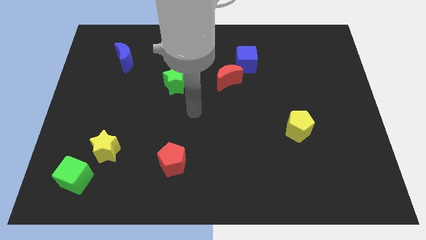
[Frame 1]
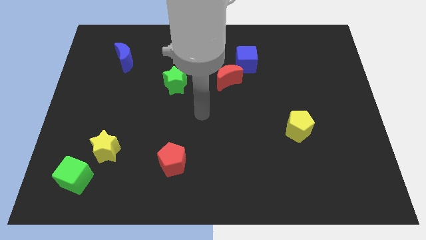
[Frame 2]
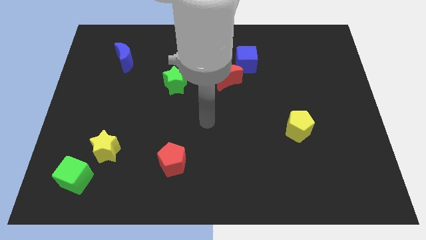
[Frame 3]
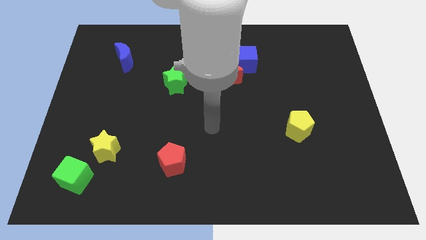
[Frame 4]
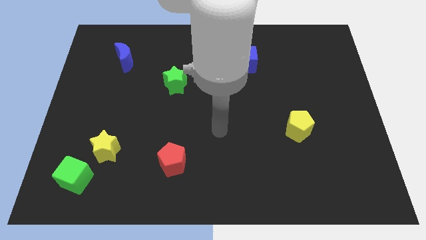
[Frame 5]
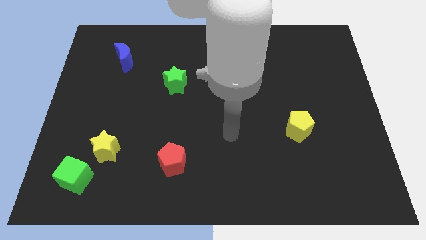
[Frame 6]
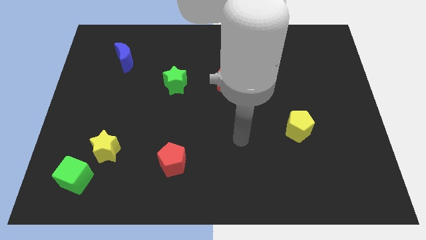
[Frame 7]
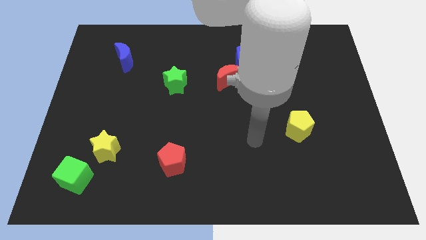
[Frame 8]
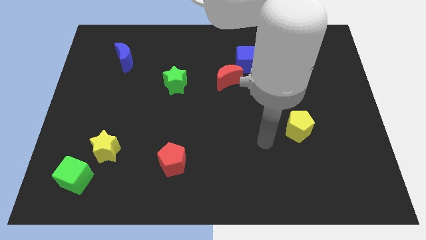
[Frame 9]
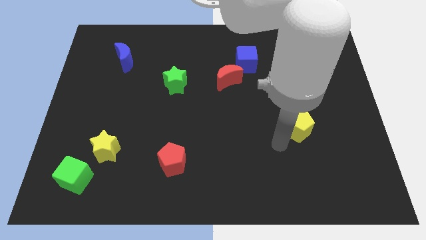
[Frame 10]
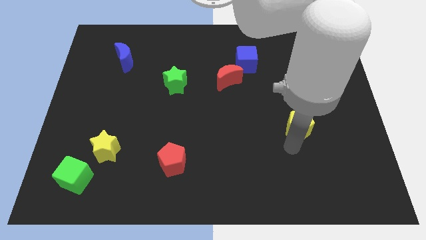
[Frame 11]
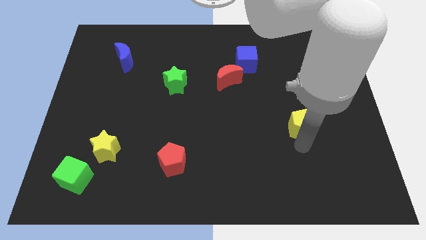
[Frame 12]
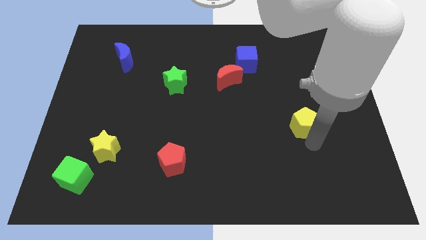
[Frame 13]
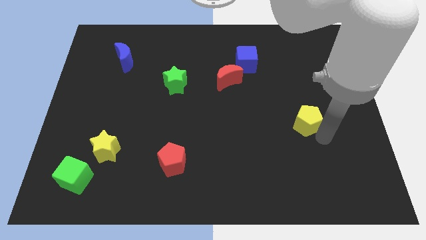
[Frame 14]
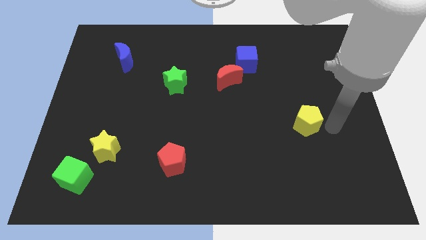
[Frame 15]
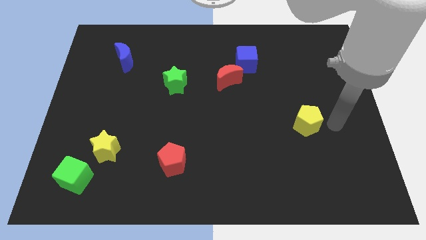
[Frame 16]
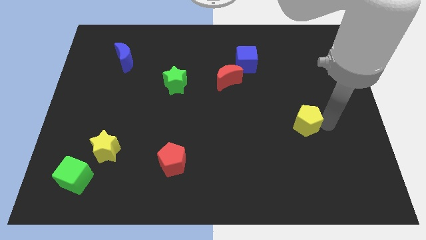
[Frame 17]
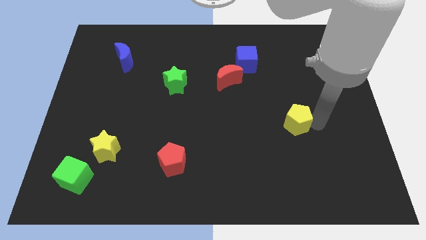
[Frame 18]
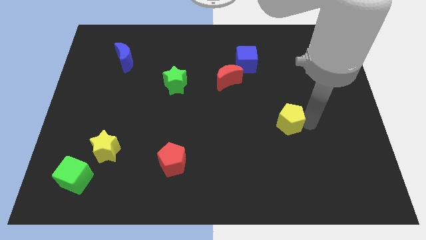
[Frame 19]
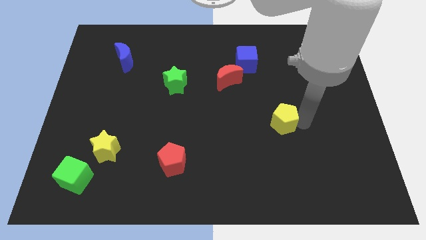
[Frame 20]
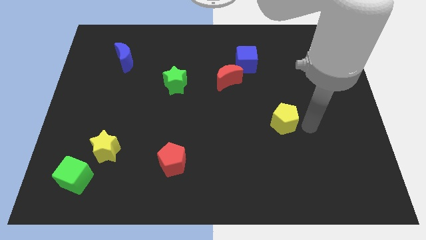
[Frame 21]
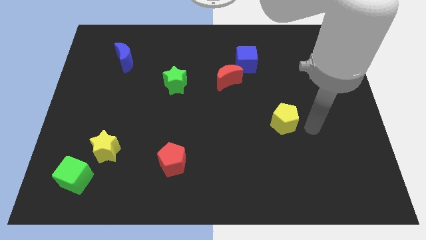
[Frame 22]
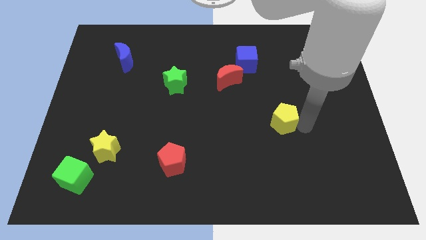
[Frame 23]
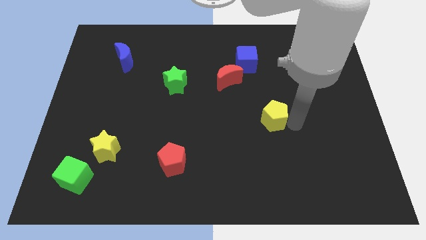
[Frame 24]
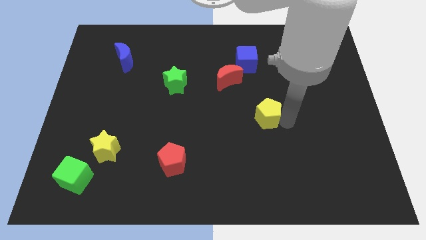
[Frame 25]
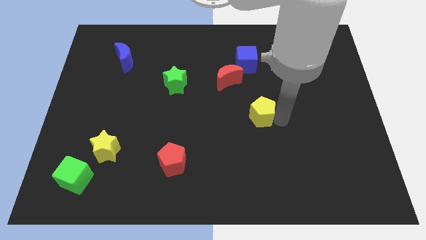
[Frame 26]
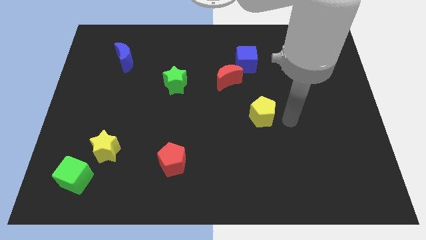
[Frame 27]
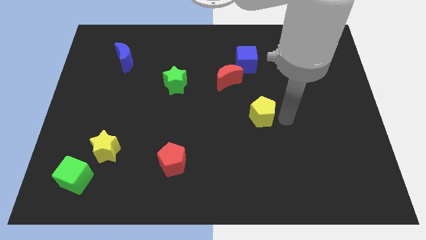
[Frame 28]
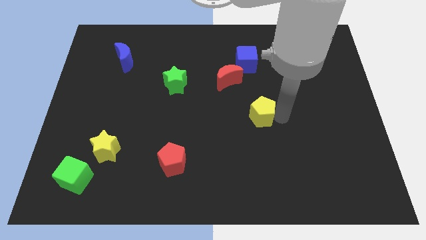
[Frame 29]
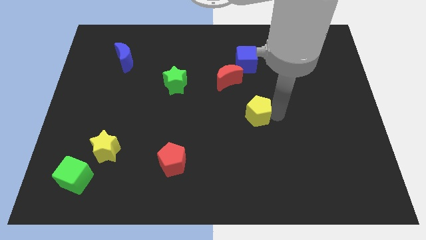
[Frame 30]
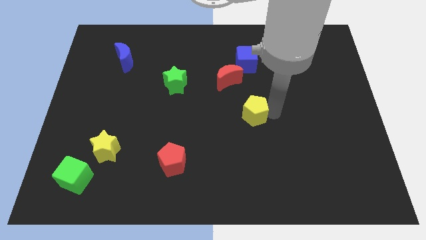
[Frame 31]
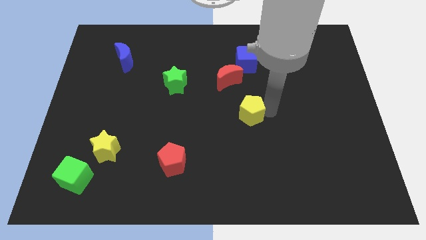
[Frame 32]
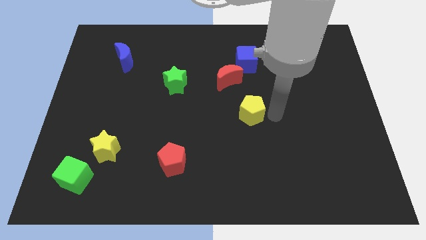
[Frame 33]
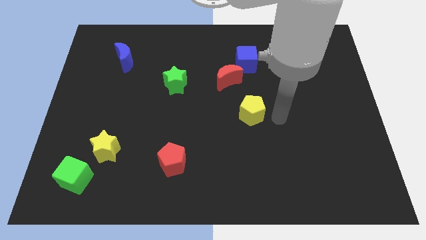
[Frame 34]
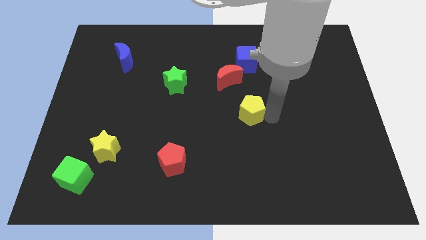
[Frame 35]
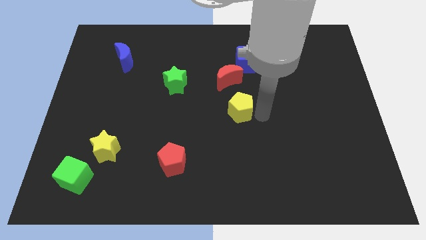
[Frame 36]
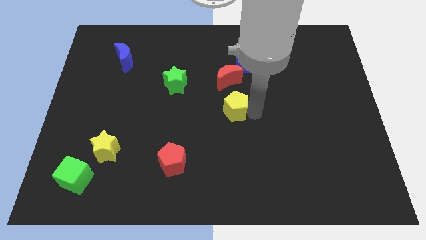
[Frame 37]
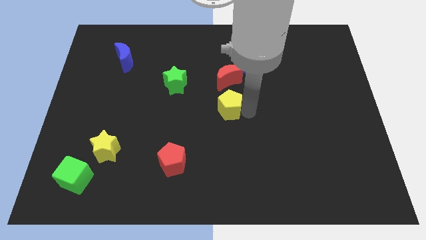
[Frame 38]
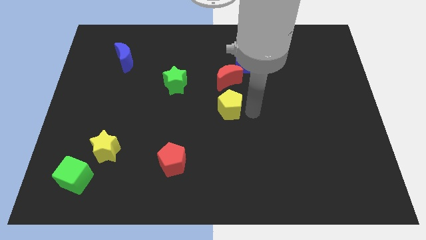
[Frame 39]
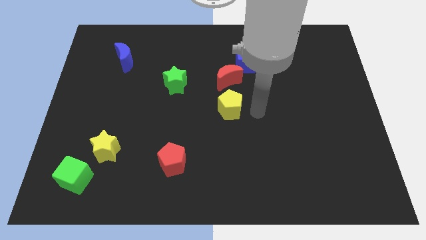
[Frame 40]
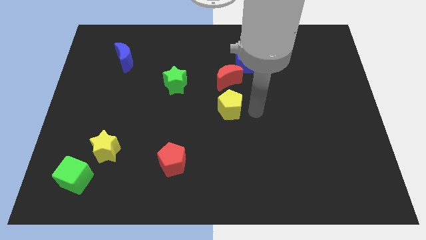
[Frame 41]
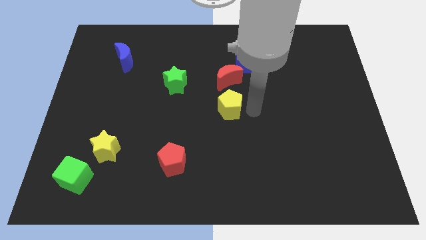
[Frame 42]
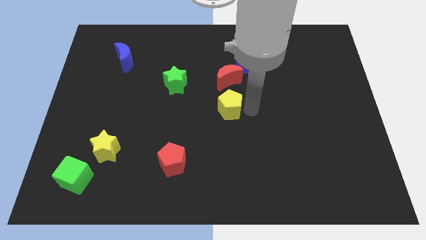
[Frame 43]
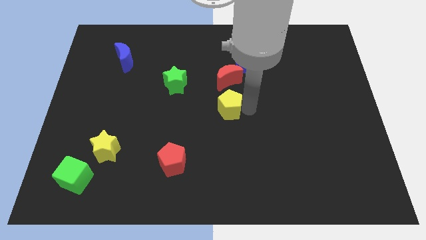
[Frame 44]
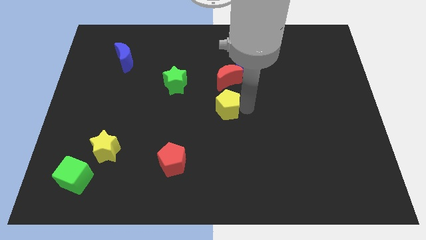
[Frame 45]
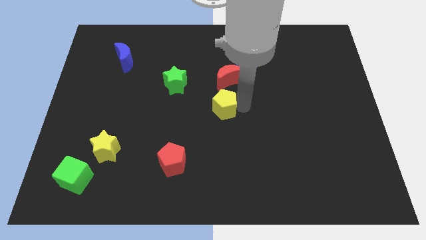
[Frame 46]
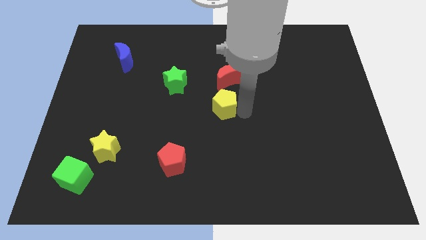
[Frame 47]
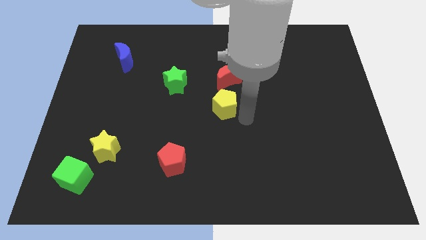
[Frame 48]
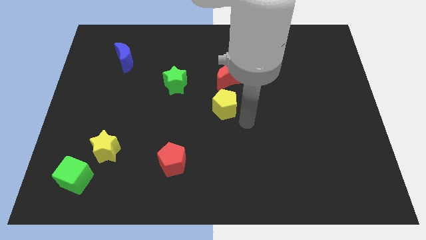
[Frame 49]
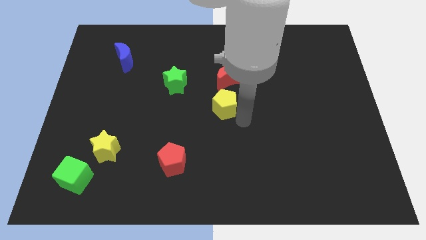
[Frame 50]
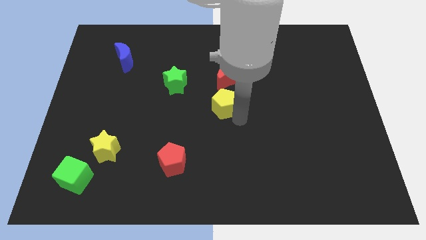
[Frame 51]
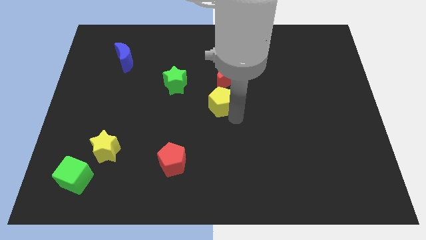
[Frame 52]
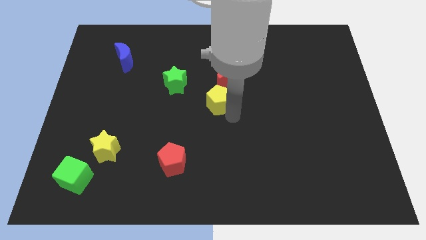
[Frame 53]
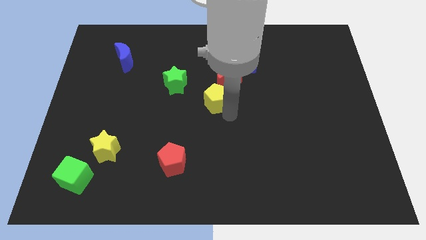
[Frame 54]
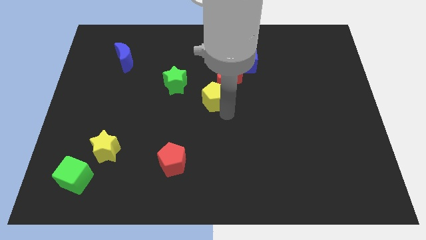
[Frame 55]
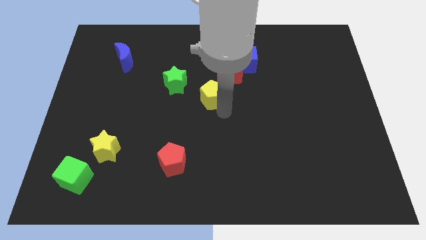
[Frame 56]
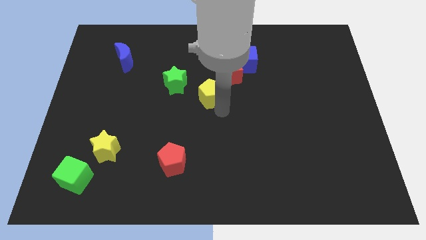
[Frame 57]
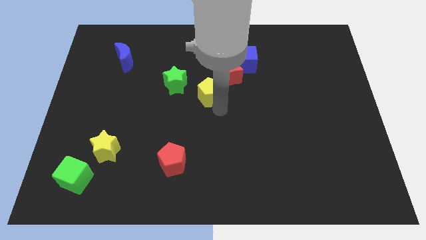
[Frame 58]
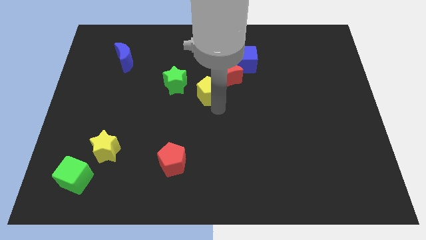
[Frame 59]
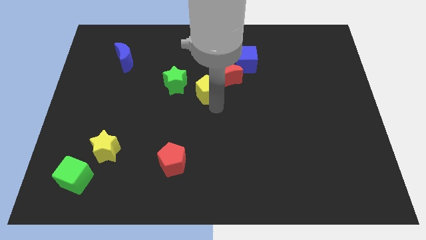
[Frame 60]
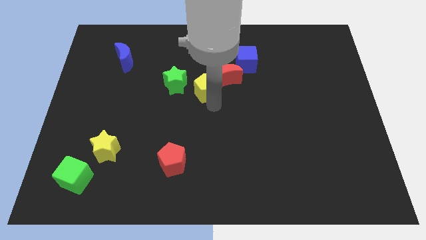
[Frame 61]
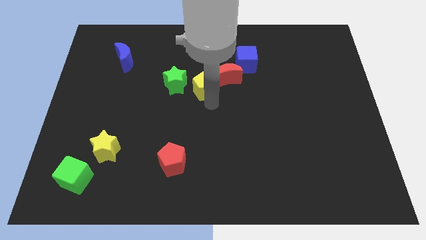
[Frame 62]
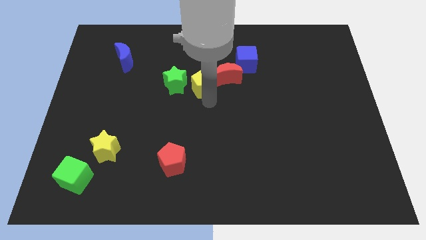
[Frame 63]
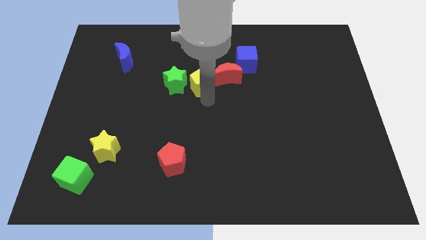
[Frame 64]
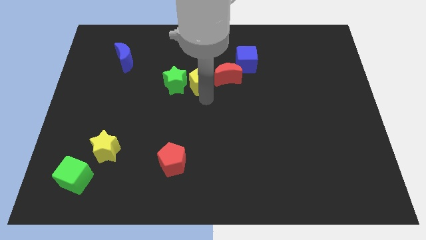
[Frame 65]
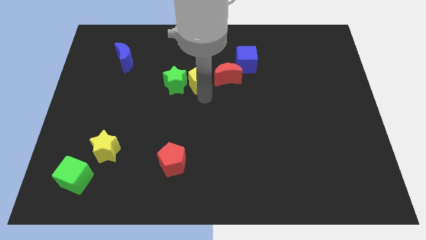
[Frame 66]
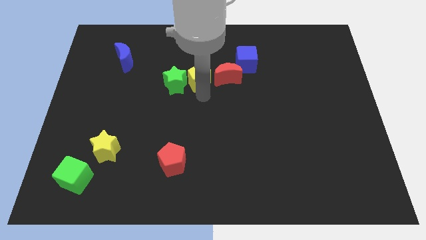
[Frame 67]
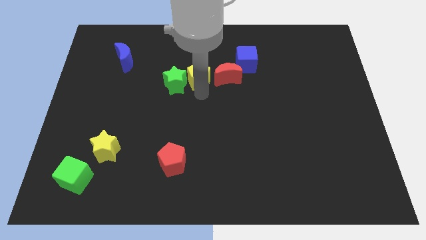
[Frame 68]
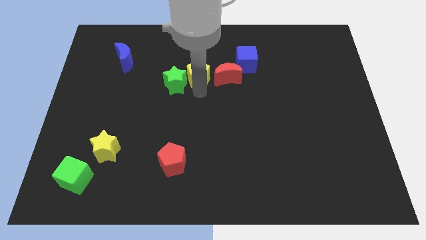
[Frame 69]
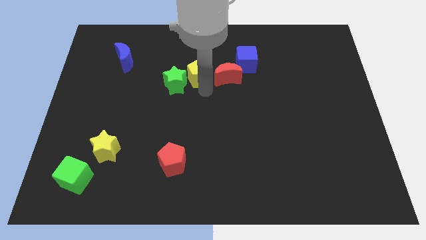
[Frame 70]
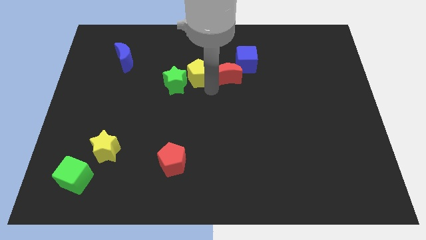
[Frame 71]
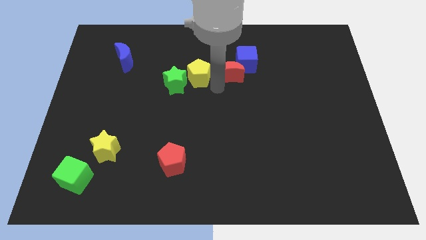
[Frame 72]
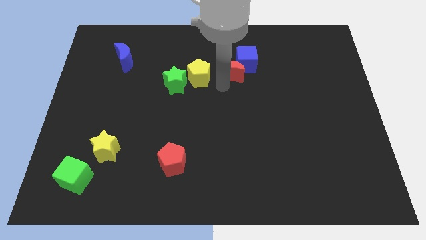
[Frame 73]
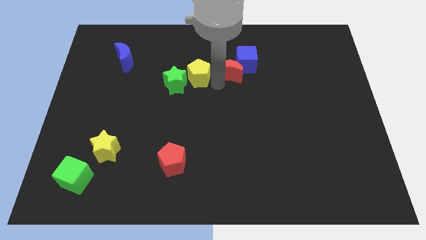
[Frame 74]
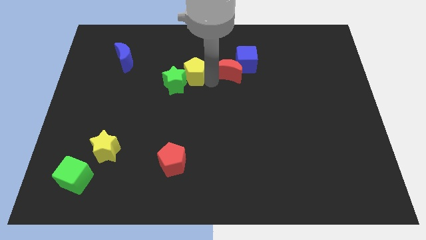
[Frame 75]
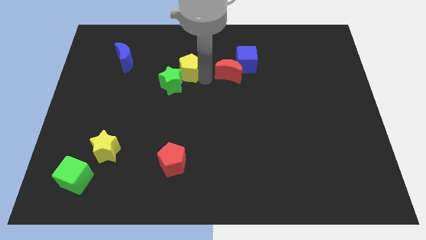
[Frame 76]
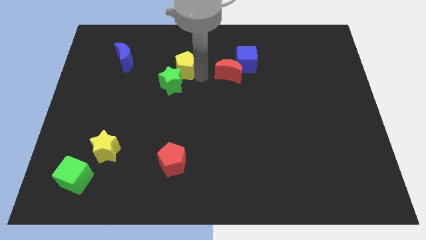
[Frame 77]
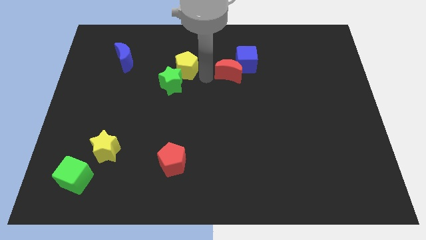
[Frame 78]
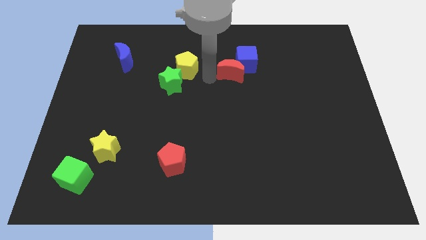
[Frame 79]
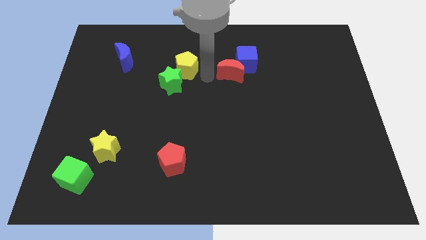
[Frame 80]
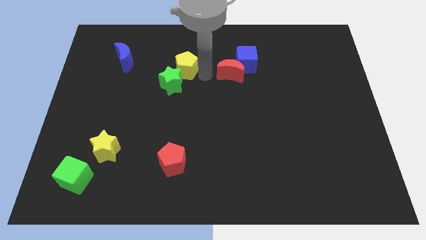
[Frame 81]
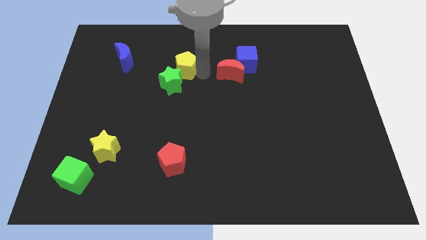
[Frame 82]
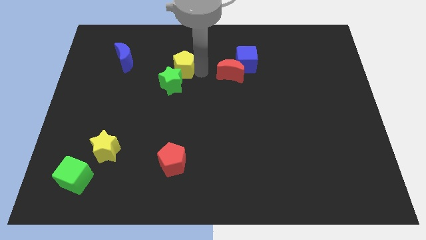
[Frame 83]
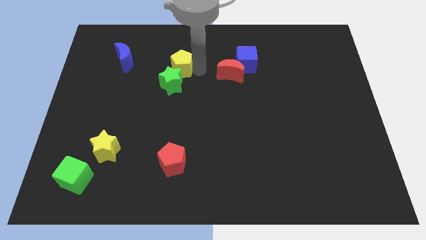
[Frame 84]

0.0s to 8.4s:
slide the yellow pentagon just right of the blue moon
